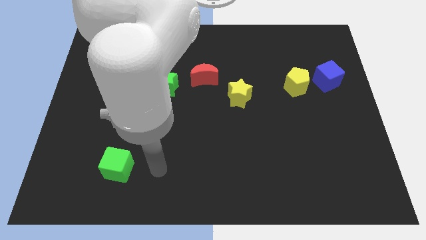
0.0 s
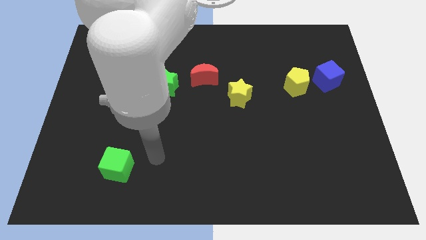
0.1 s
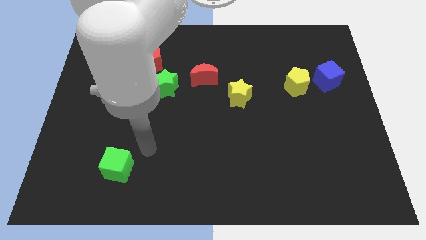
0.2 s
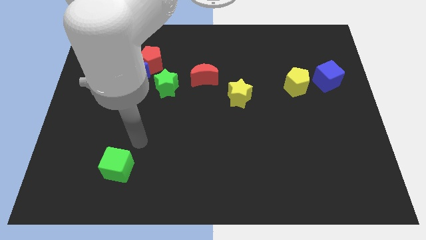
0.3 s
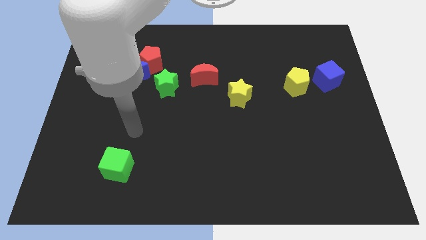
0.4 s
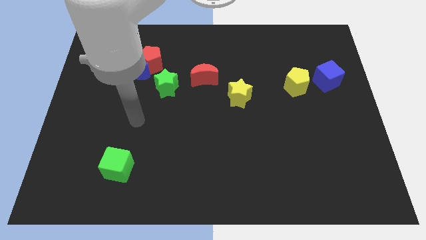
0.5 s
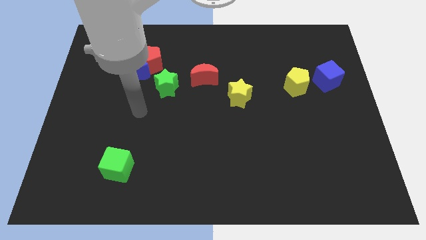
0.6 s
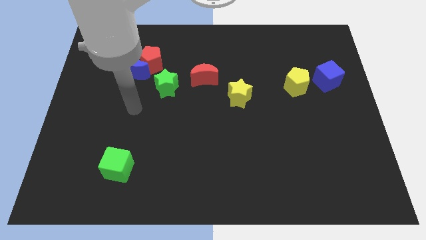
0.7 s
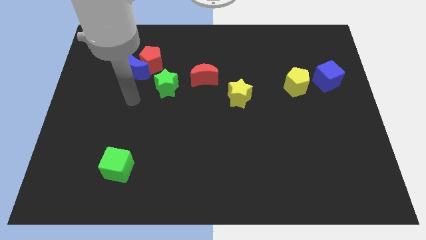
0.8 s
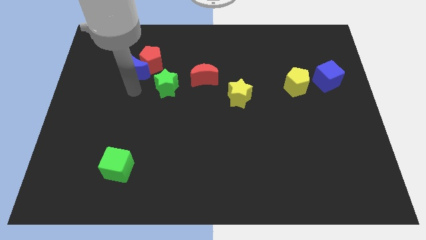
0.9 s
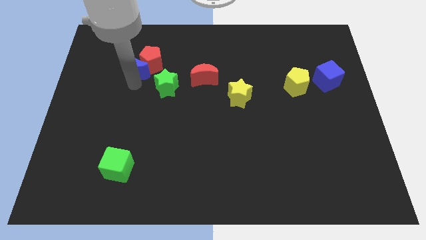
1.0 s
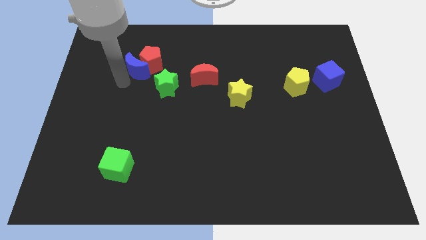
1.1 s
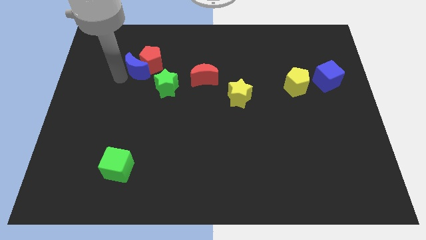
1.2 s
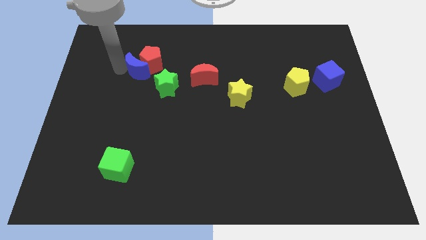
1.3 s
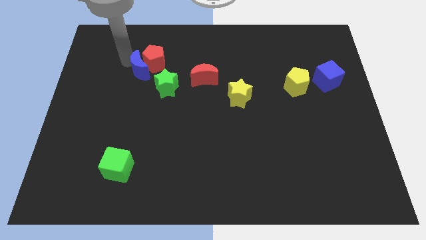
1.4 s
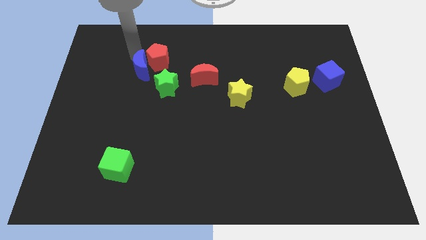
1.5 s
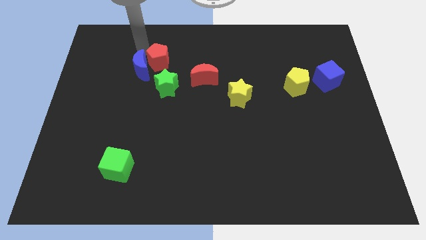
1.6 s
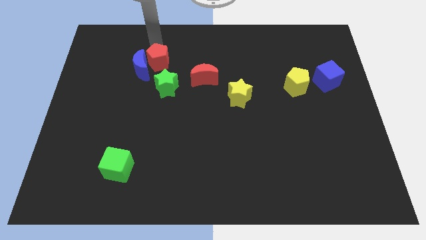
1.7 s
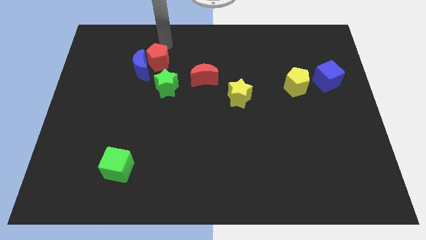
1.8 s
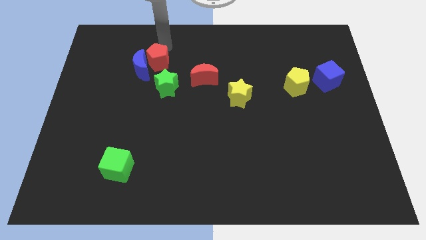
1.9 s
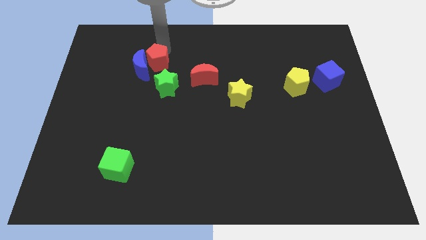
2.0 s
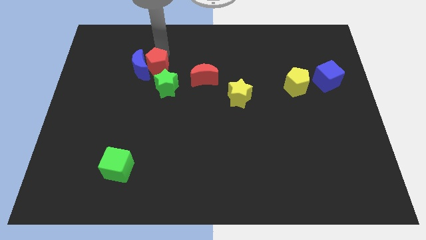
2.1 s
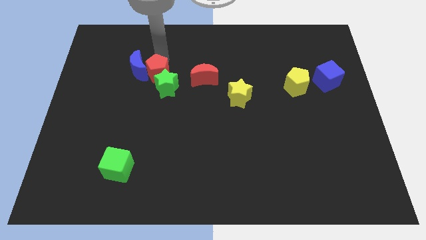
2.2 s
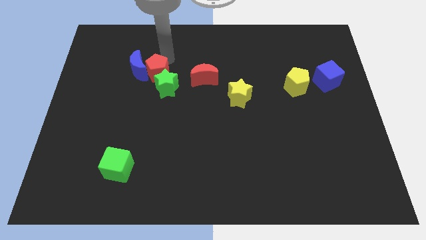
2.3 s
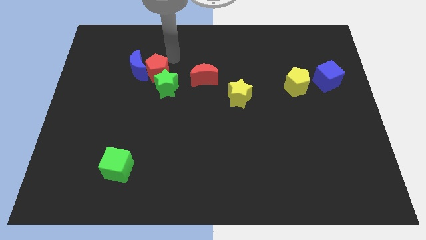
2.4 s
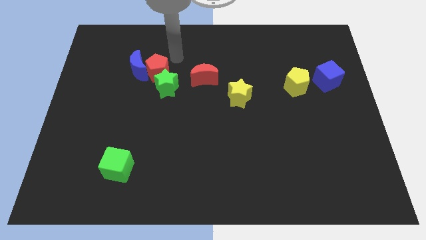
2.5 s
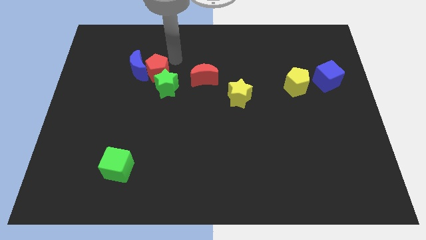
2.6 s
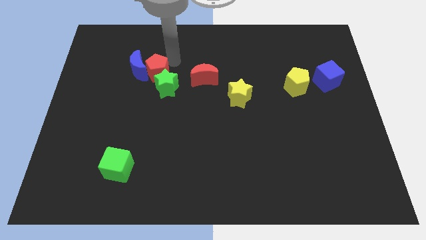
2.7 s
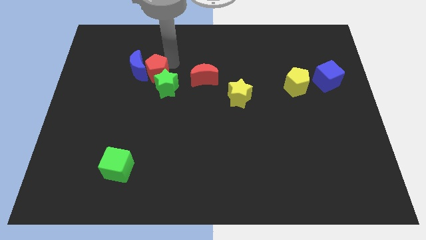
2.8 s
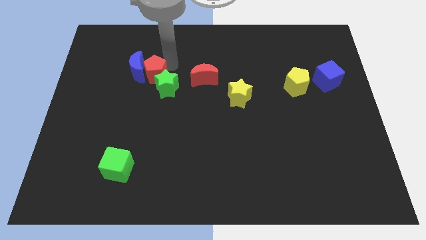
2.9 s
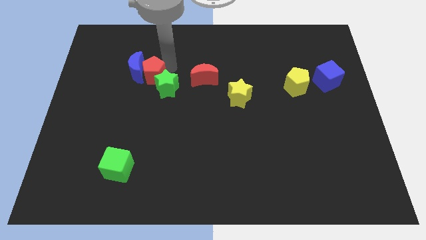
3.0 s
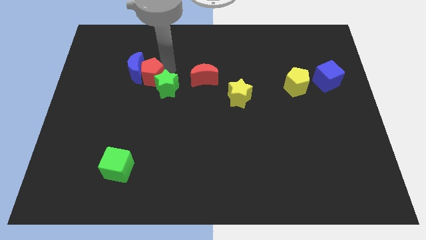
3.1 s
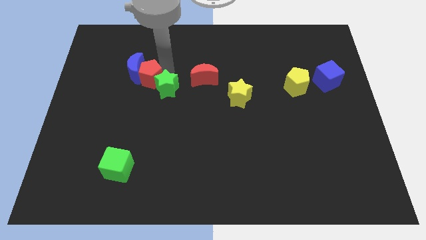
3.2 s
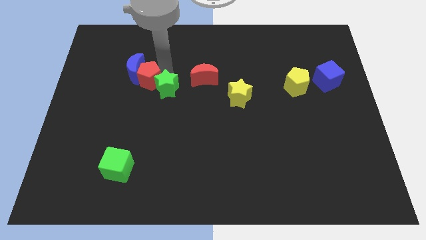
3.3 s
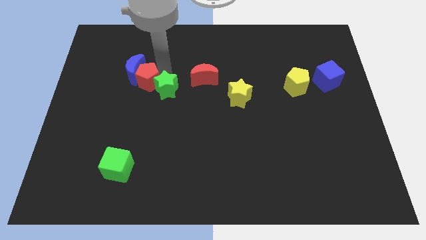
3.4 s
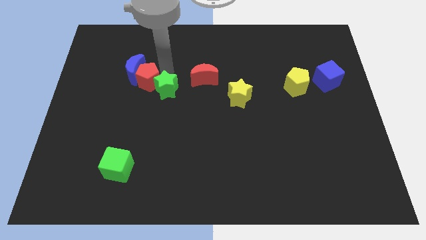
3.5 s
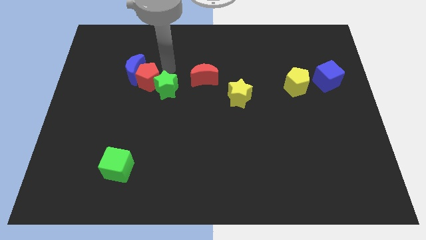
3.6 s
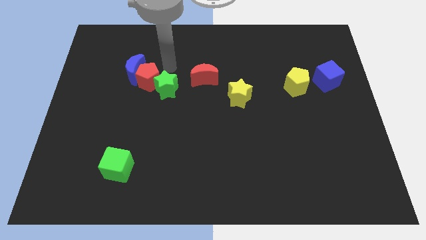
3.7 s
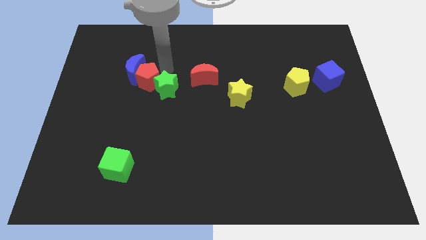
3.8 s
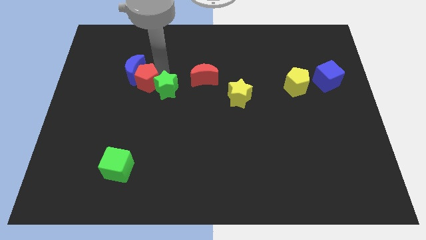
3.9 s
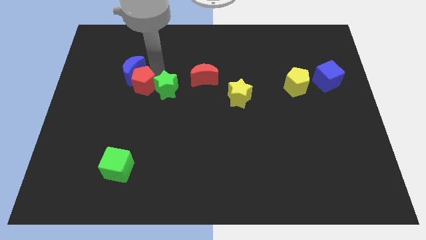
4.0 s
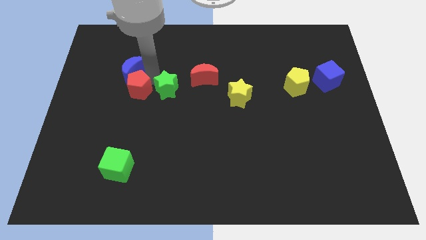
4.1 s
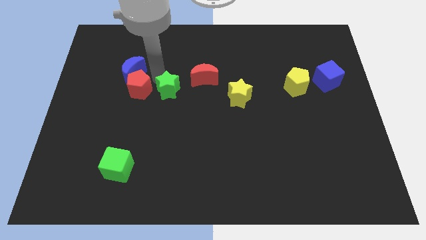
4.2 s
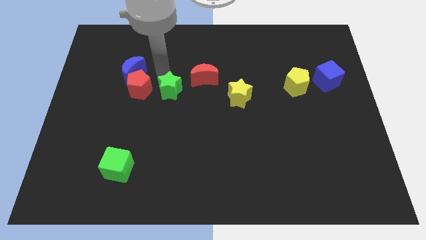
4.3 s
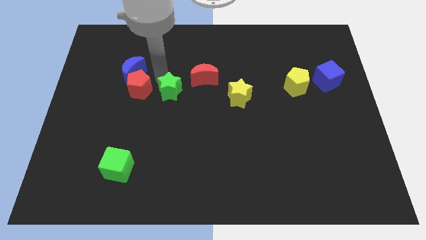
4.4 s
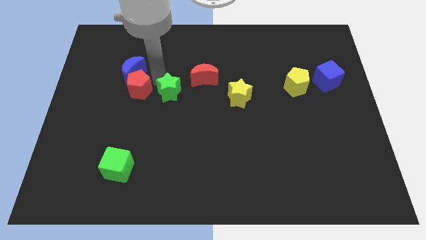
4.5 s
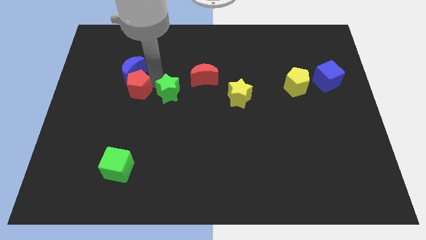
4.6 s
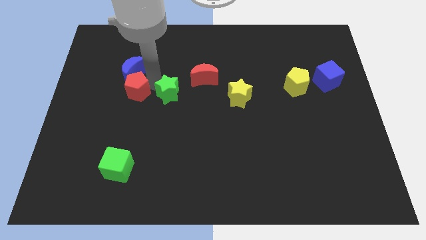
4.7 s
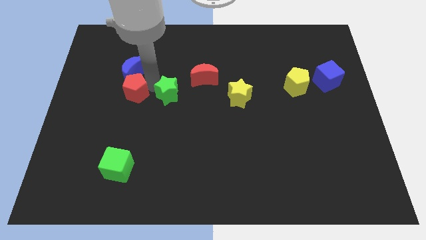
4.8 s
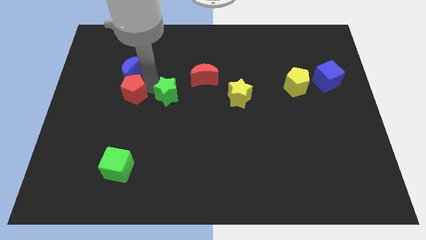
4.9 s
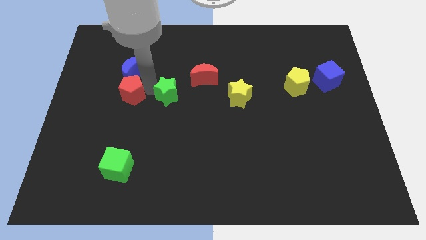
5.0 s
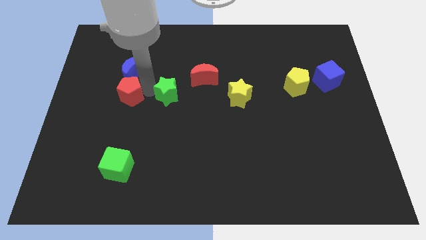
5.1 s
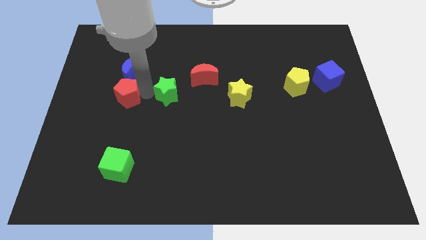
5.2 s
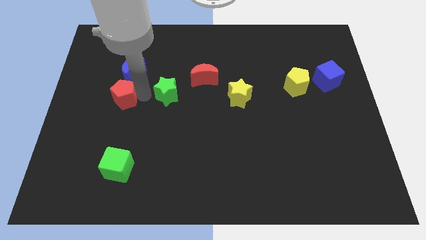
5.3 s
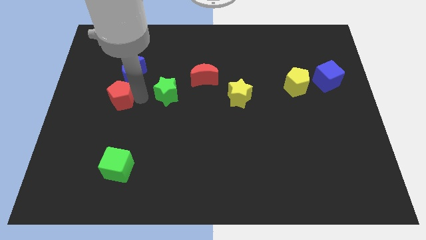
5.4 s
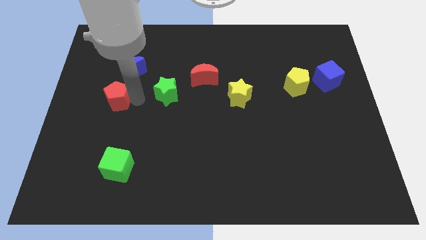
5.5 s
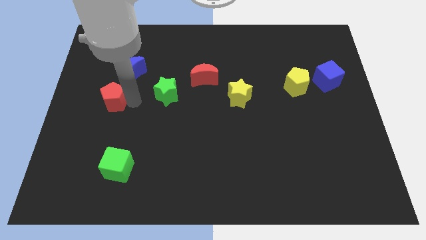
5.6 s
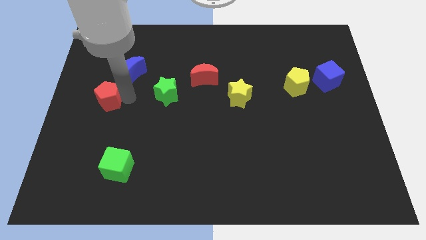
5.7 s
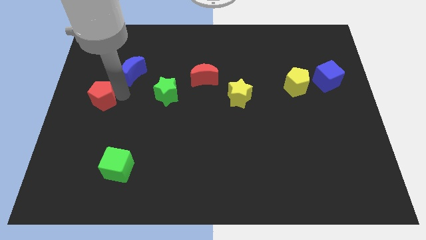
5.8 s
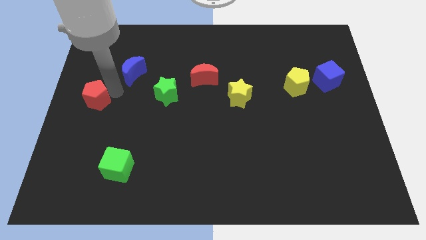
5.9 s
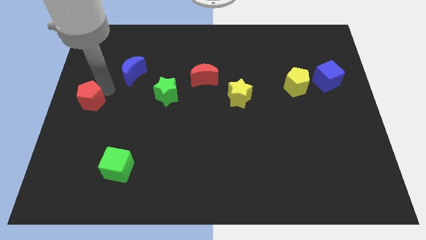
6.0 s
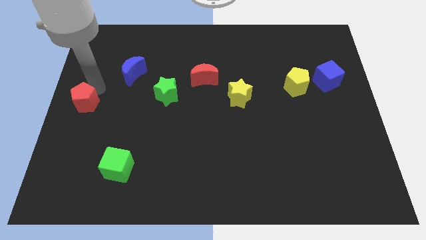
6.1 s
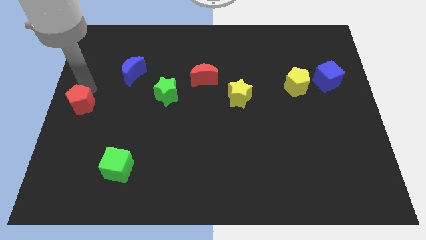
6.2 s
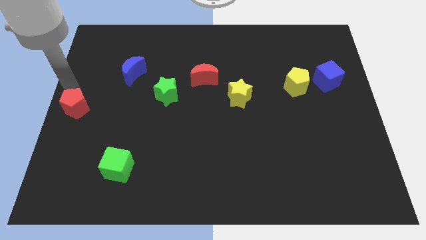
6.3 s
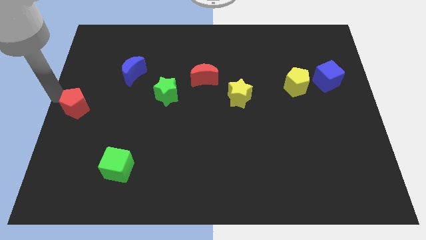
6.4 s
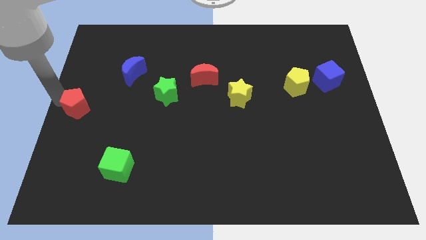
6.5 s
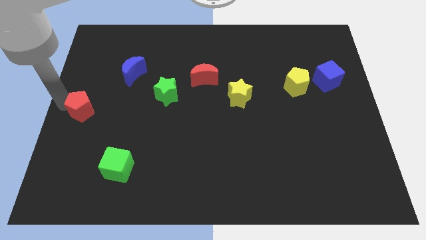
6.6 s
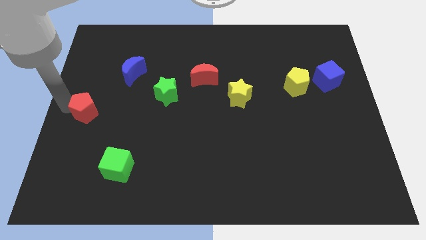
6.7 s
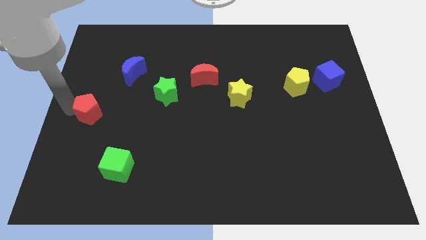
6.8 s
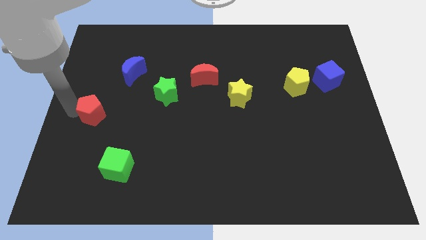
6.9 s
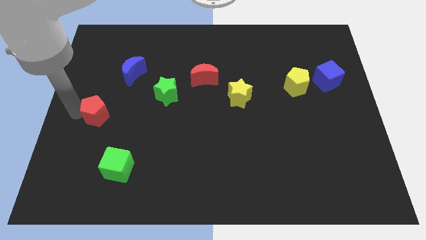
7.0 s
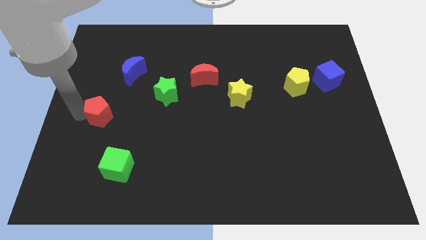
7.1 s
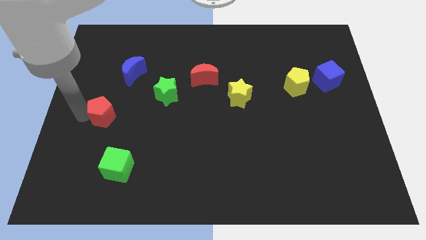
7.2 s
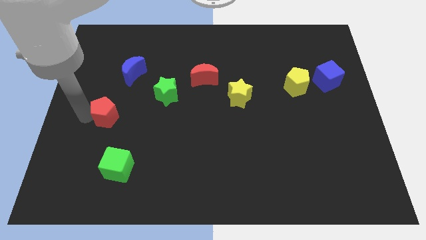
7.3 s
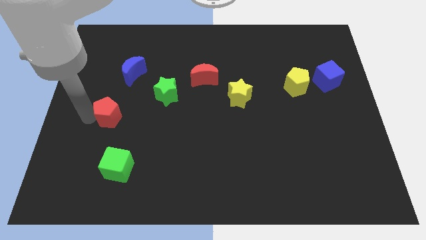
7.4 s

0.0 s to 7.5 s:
push the red pentagon above the green cube

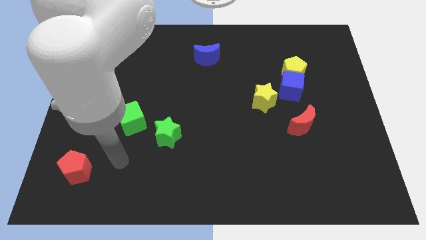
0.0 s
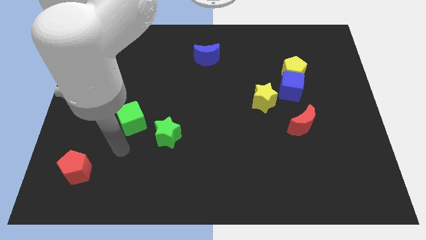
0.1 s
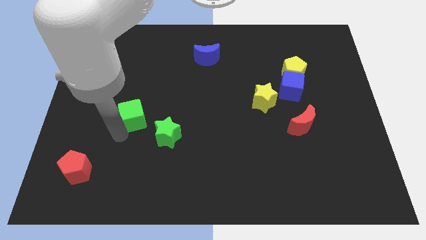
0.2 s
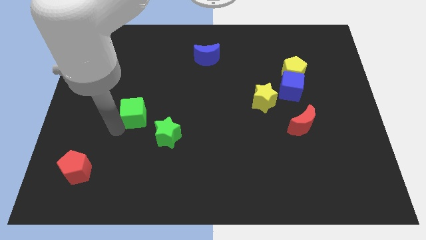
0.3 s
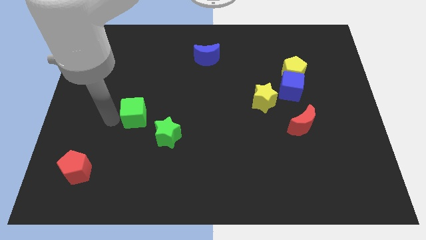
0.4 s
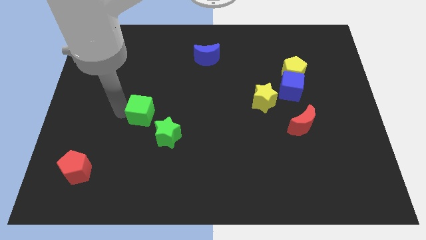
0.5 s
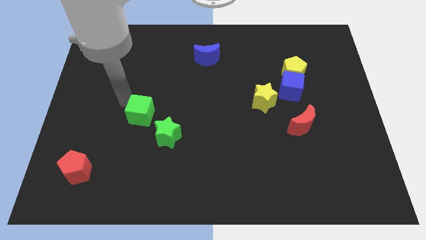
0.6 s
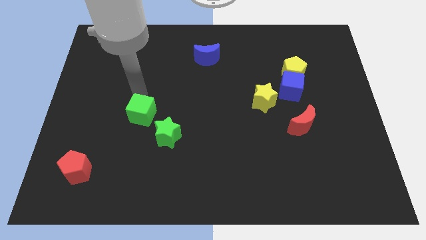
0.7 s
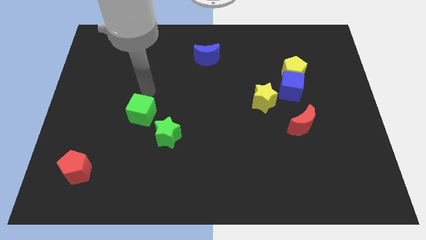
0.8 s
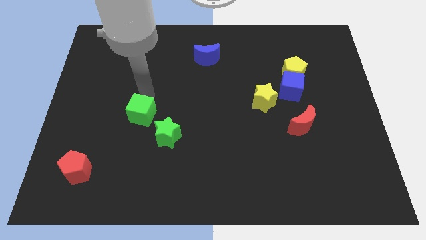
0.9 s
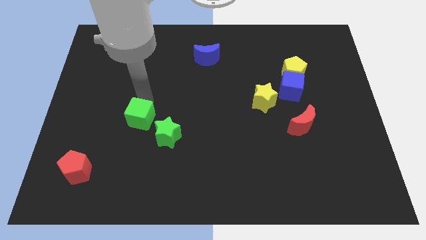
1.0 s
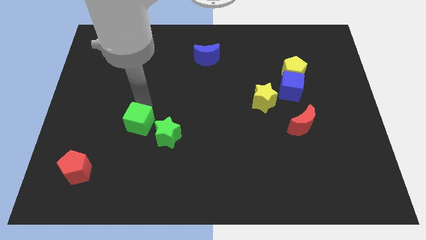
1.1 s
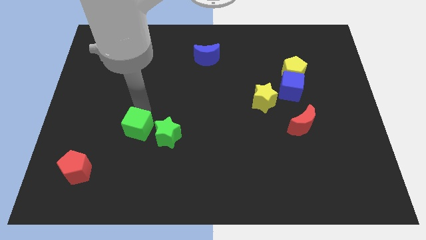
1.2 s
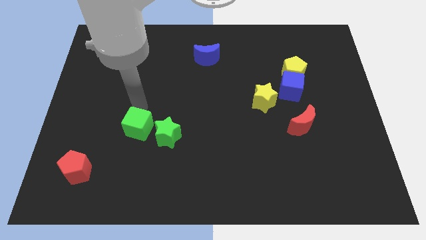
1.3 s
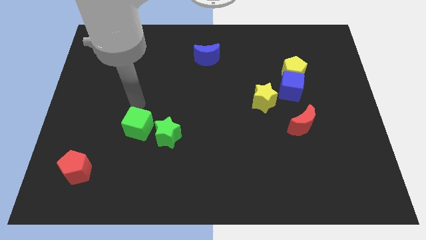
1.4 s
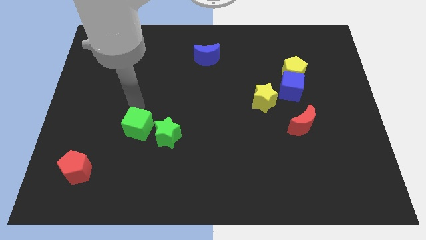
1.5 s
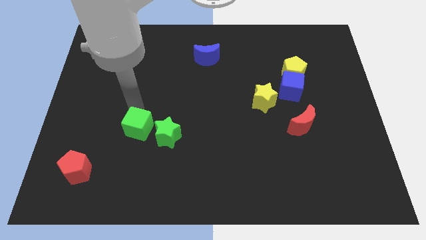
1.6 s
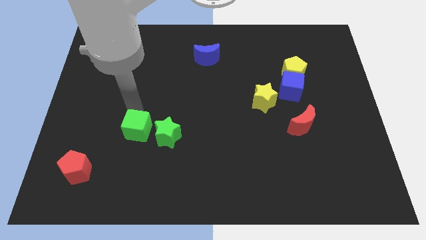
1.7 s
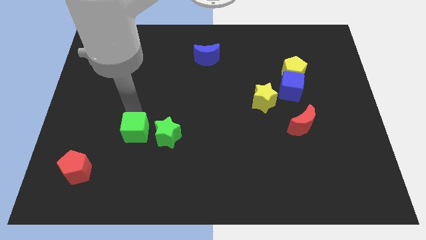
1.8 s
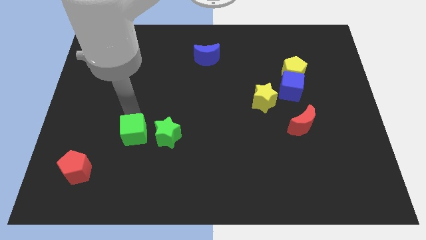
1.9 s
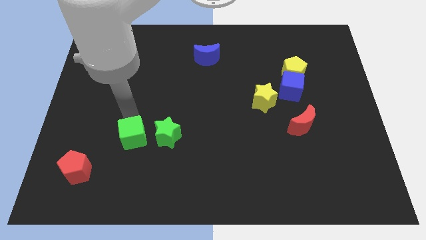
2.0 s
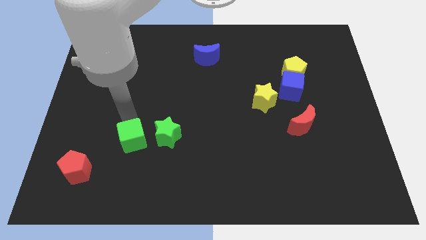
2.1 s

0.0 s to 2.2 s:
move the green cube diagonally down and to the left of the green star
